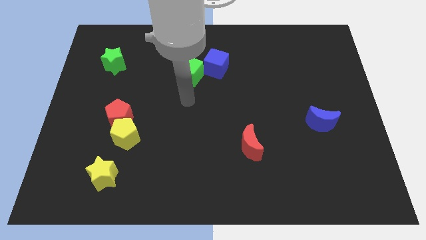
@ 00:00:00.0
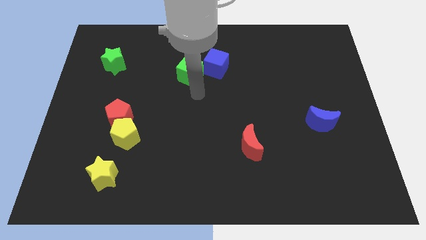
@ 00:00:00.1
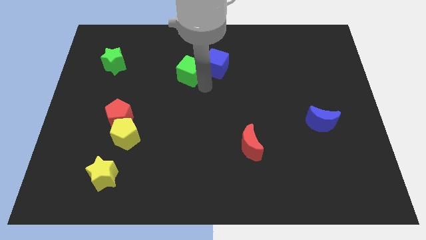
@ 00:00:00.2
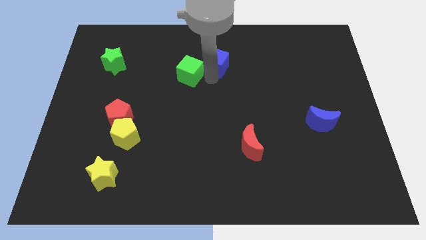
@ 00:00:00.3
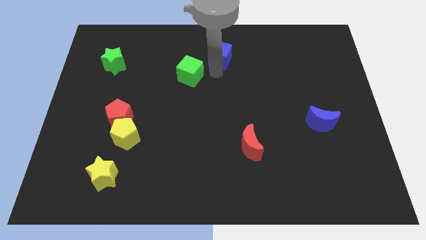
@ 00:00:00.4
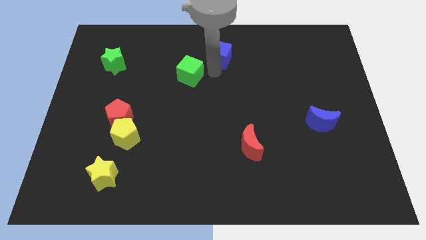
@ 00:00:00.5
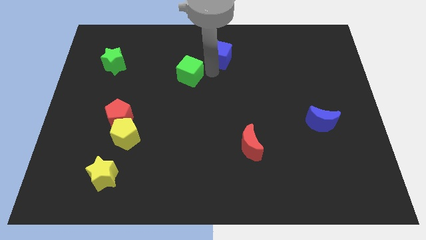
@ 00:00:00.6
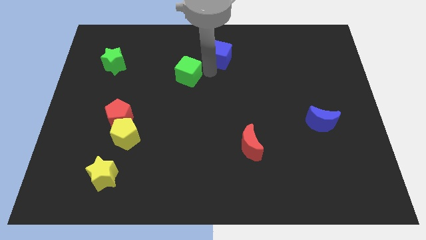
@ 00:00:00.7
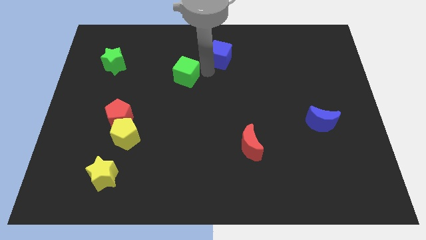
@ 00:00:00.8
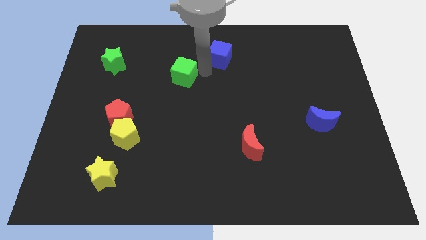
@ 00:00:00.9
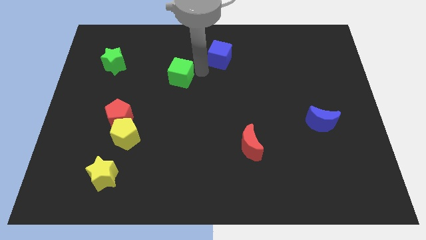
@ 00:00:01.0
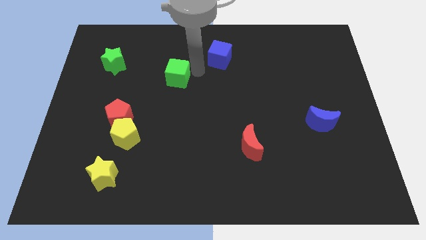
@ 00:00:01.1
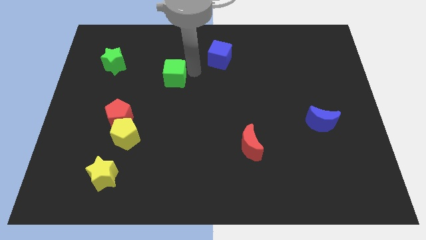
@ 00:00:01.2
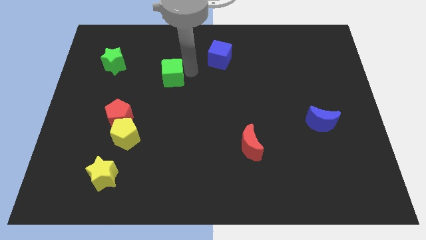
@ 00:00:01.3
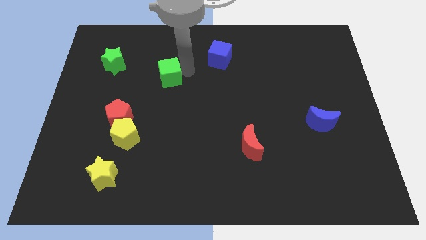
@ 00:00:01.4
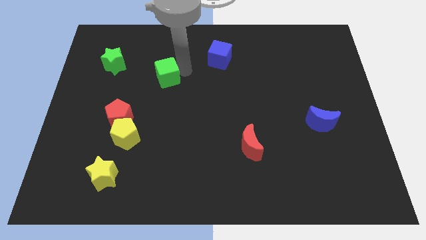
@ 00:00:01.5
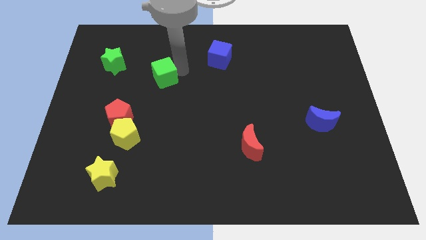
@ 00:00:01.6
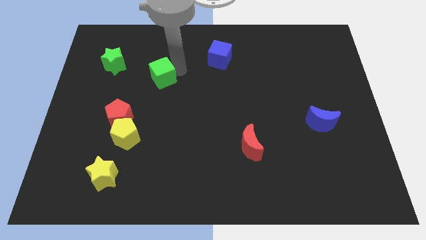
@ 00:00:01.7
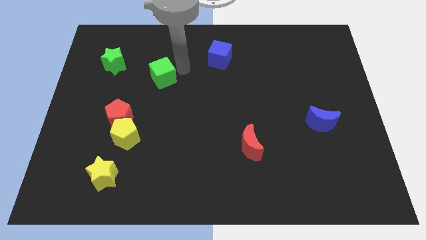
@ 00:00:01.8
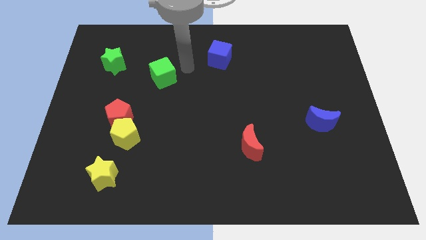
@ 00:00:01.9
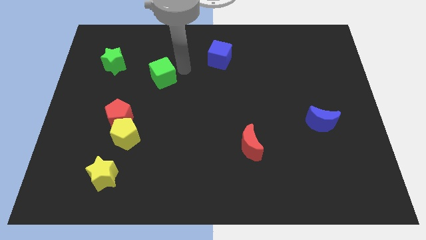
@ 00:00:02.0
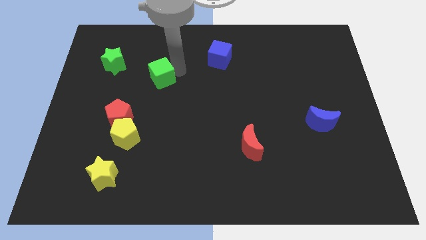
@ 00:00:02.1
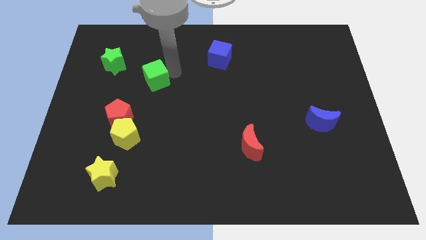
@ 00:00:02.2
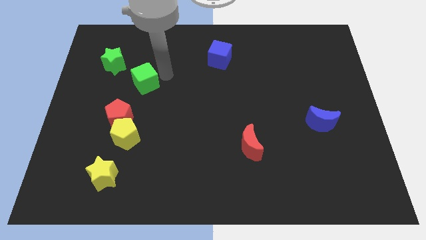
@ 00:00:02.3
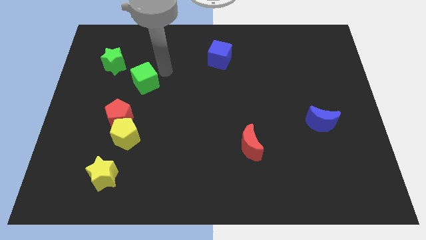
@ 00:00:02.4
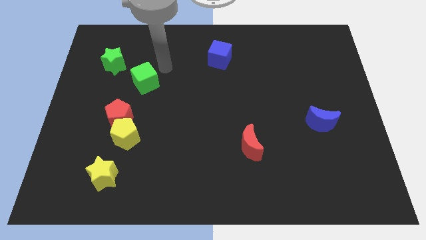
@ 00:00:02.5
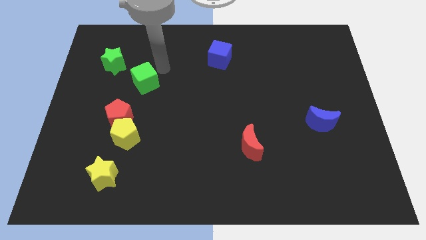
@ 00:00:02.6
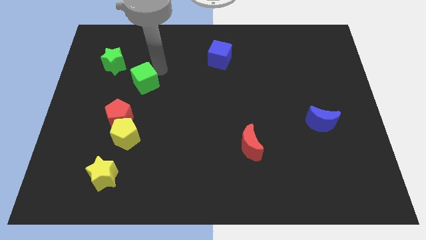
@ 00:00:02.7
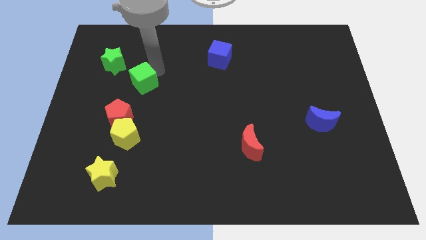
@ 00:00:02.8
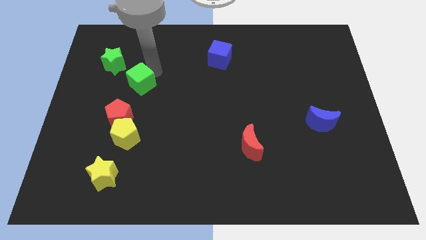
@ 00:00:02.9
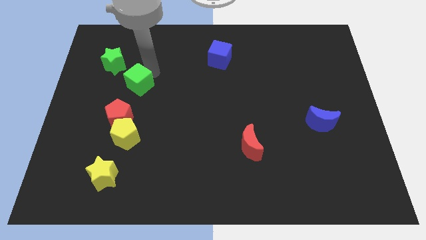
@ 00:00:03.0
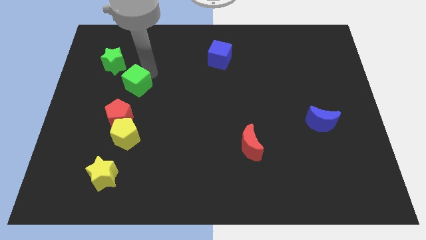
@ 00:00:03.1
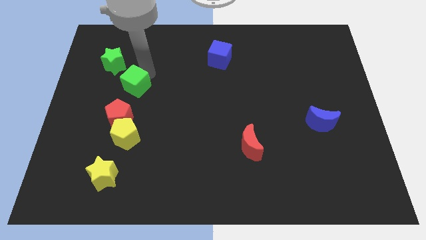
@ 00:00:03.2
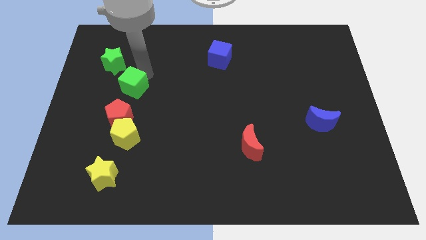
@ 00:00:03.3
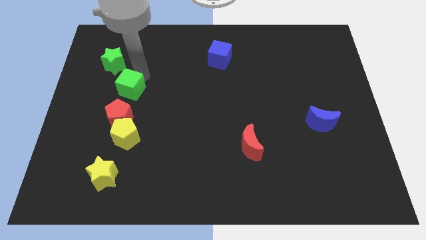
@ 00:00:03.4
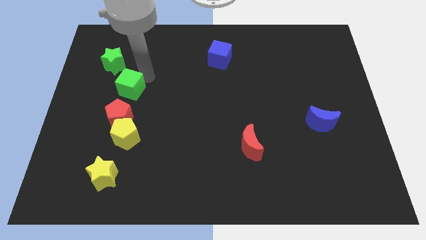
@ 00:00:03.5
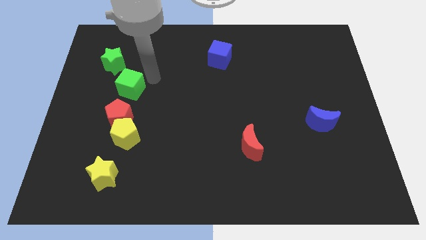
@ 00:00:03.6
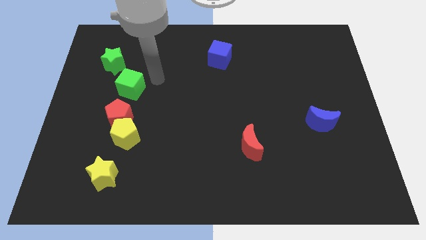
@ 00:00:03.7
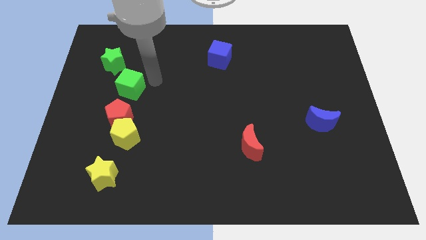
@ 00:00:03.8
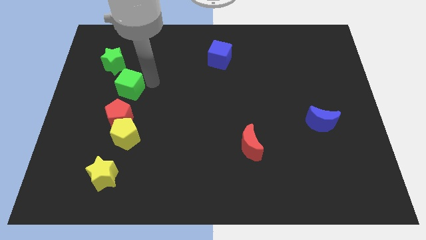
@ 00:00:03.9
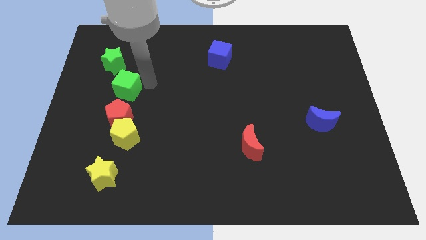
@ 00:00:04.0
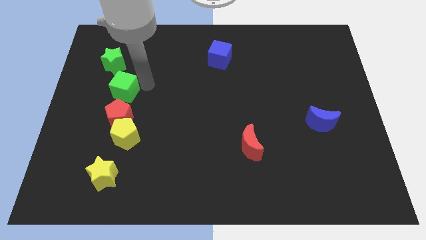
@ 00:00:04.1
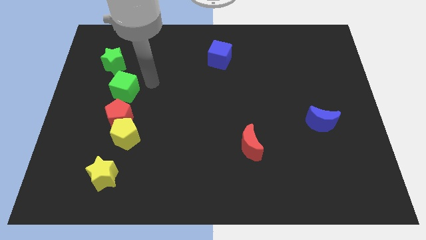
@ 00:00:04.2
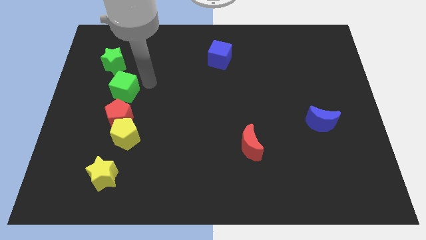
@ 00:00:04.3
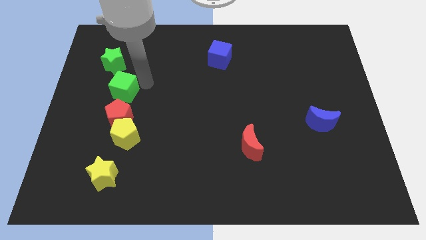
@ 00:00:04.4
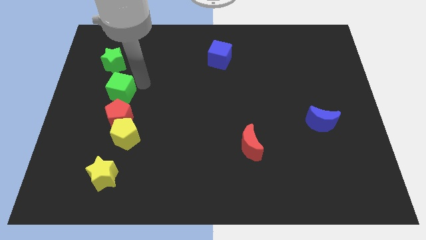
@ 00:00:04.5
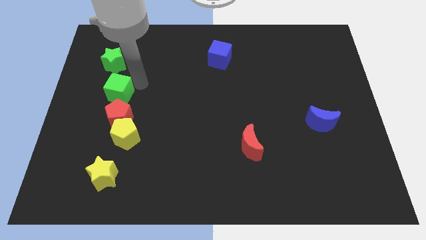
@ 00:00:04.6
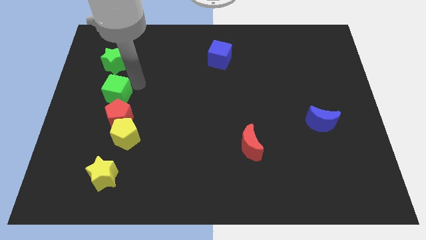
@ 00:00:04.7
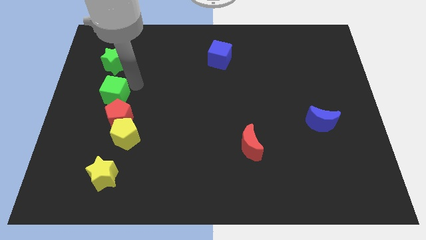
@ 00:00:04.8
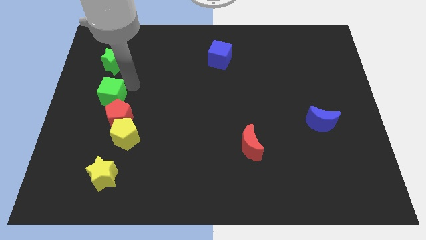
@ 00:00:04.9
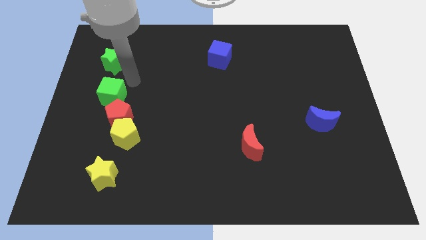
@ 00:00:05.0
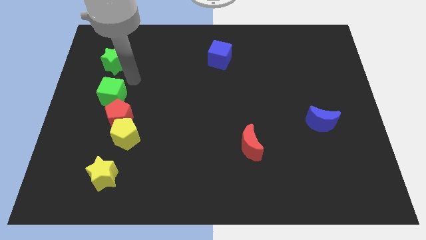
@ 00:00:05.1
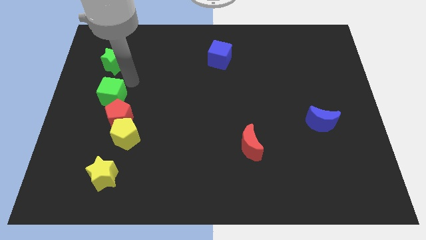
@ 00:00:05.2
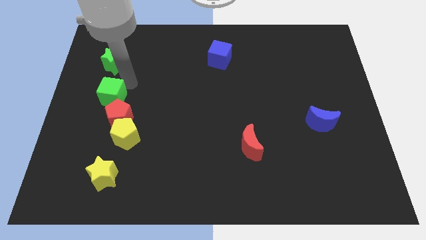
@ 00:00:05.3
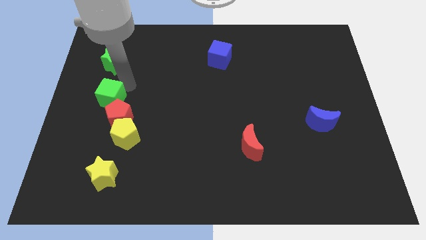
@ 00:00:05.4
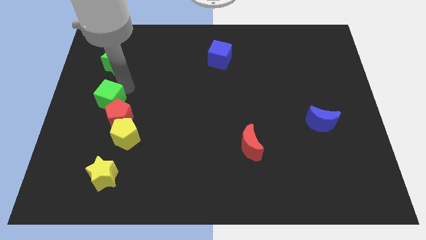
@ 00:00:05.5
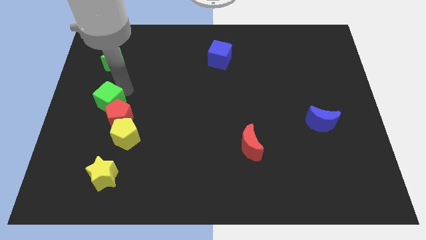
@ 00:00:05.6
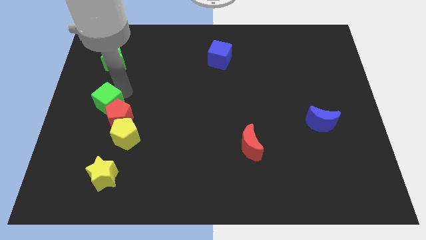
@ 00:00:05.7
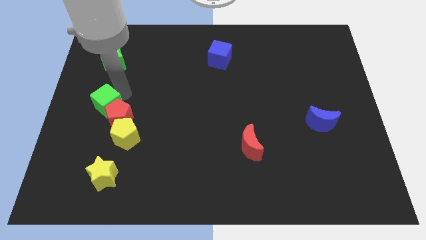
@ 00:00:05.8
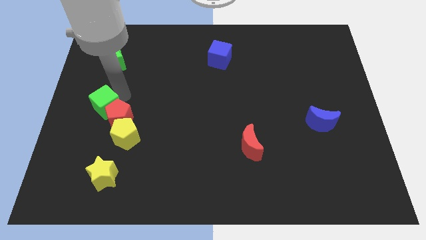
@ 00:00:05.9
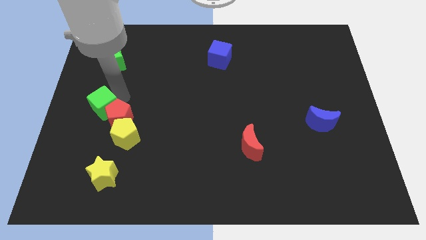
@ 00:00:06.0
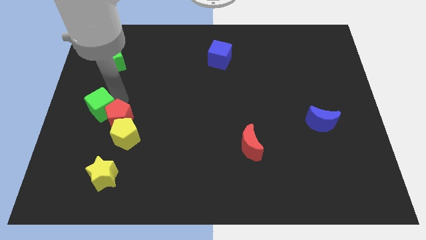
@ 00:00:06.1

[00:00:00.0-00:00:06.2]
move the green cube downwards and left diagonally

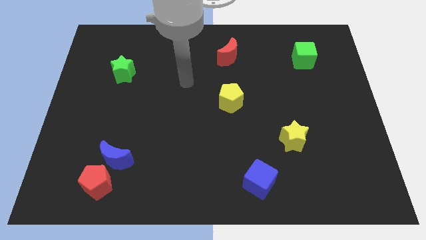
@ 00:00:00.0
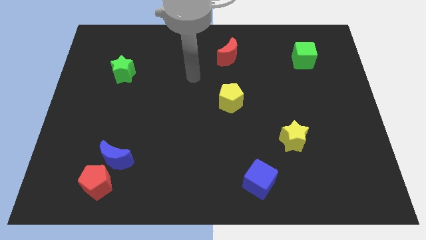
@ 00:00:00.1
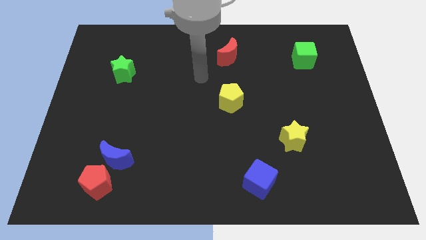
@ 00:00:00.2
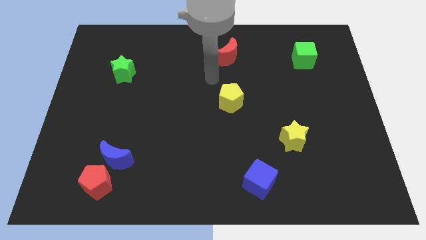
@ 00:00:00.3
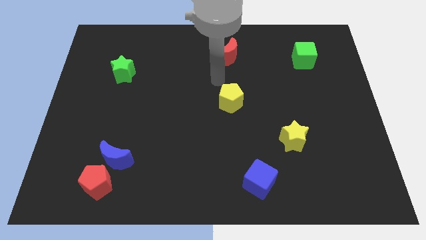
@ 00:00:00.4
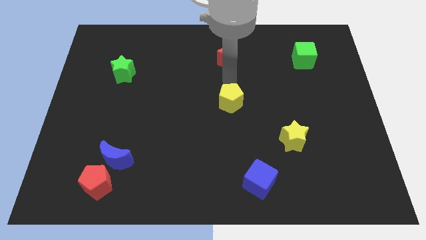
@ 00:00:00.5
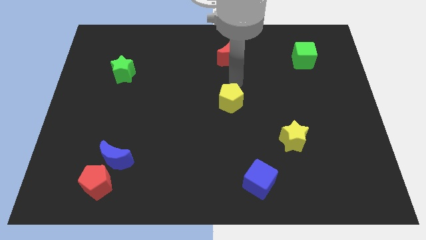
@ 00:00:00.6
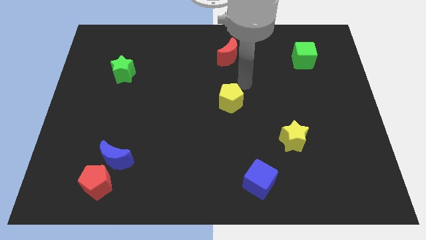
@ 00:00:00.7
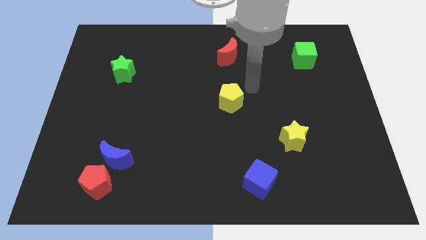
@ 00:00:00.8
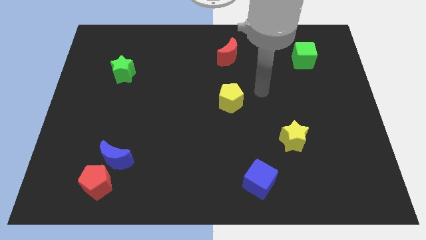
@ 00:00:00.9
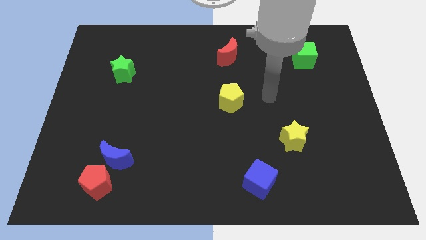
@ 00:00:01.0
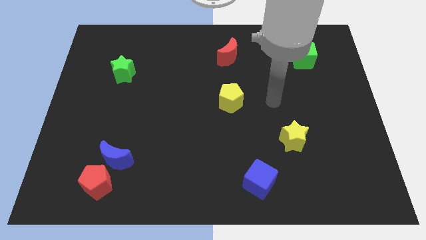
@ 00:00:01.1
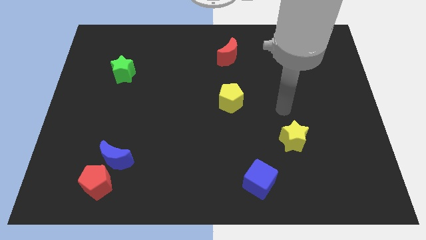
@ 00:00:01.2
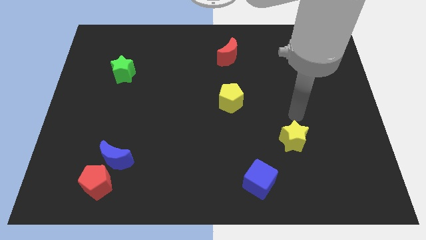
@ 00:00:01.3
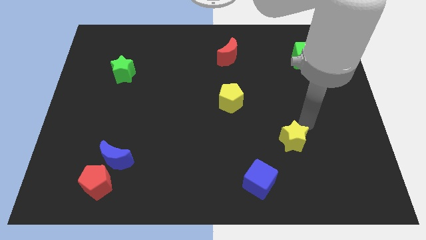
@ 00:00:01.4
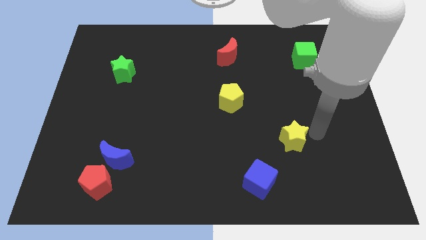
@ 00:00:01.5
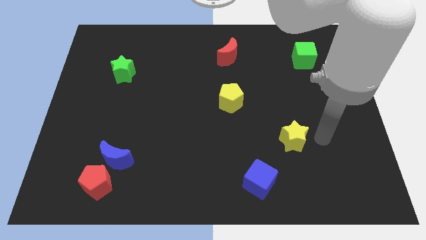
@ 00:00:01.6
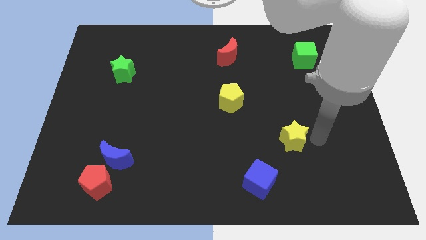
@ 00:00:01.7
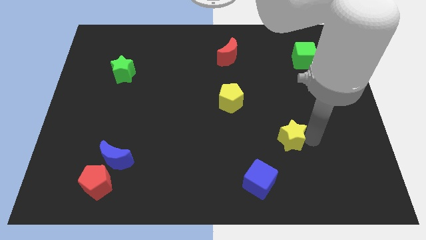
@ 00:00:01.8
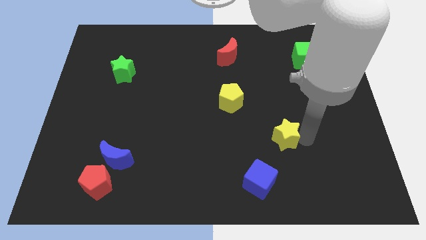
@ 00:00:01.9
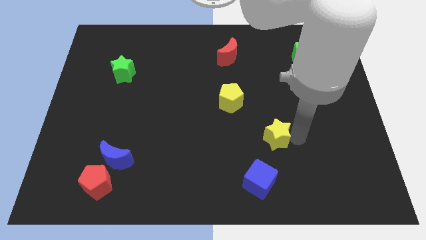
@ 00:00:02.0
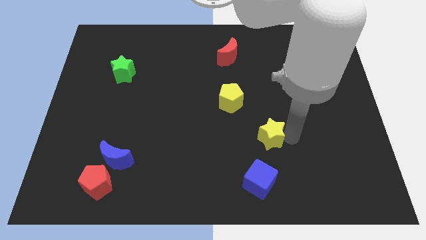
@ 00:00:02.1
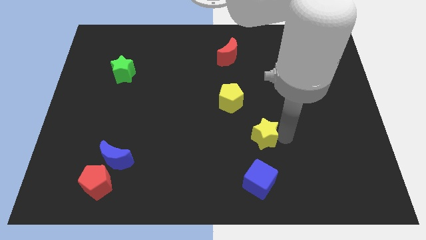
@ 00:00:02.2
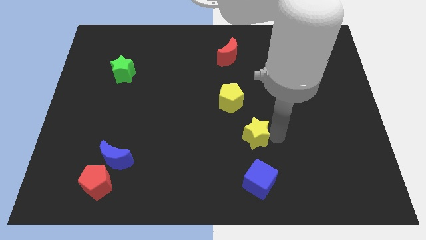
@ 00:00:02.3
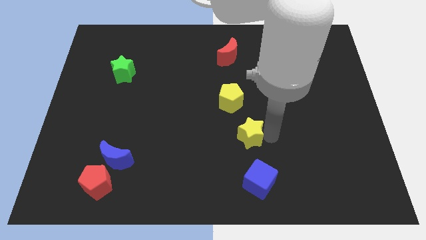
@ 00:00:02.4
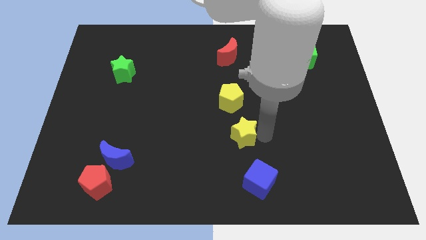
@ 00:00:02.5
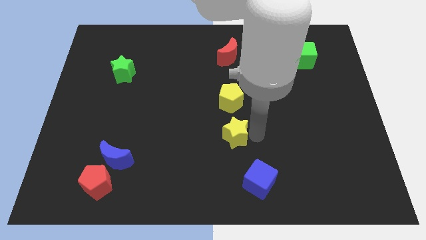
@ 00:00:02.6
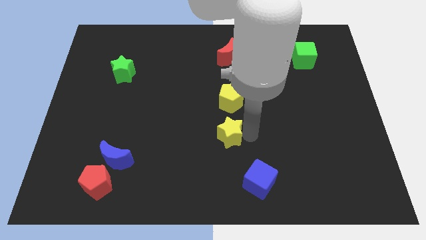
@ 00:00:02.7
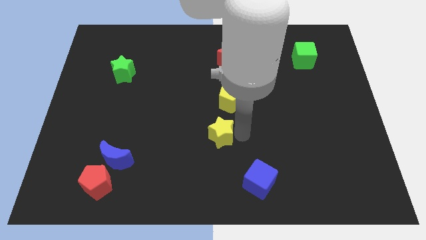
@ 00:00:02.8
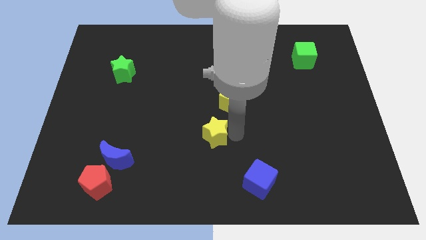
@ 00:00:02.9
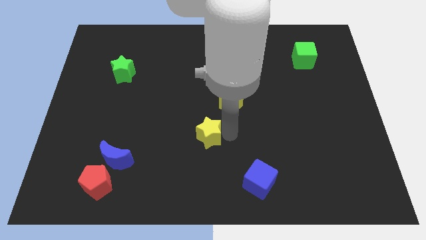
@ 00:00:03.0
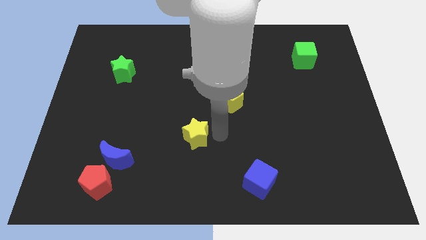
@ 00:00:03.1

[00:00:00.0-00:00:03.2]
slide the yellow star to the left
